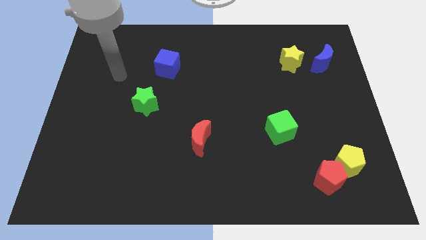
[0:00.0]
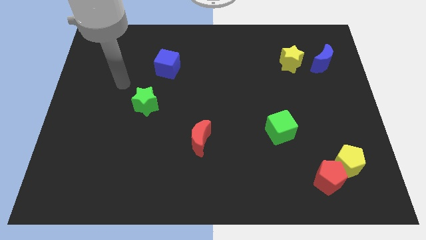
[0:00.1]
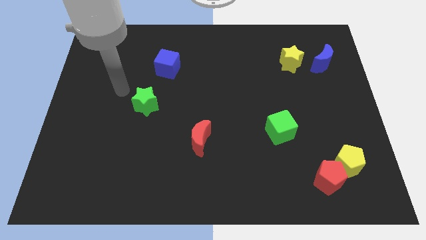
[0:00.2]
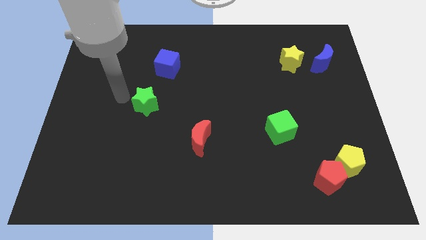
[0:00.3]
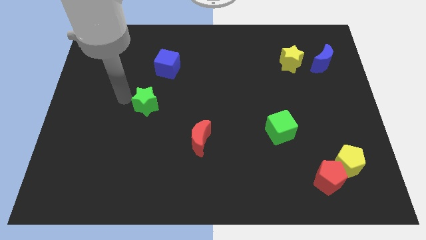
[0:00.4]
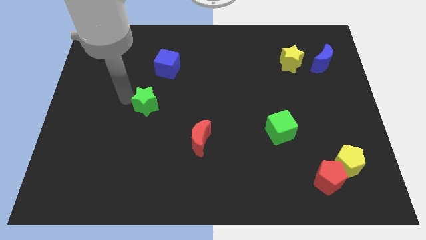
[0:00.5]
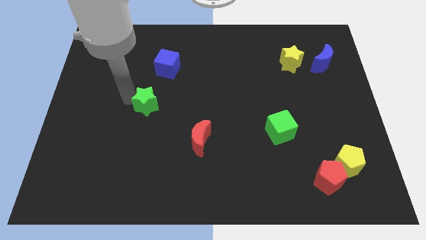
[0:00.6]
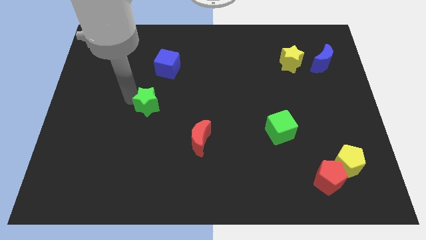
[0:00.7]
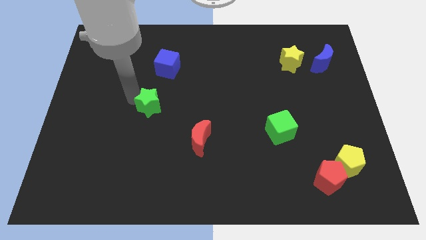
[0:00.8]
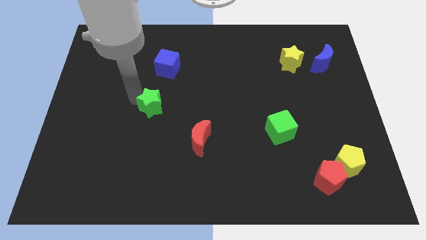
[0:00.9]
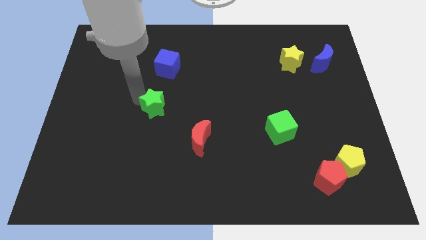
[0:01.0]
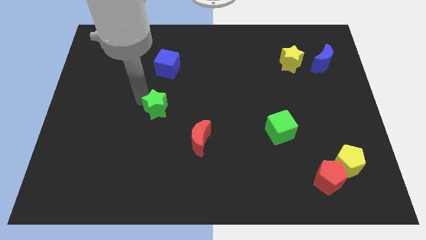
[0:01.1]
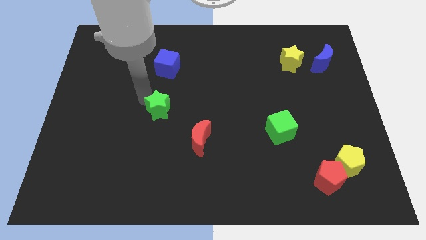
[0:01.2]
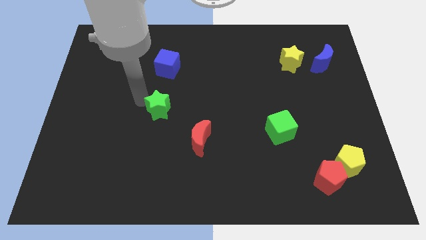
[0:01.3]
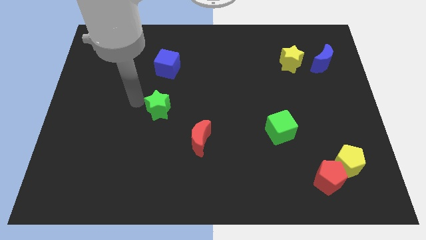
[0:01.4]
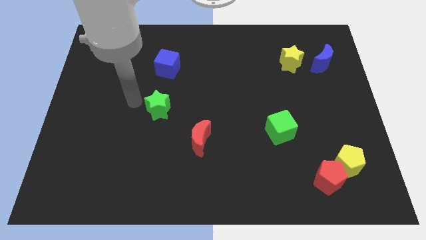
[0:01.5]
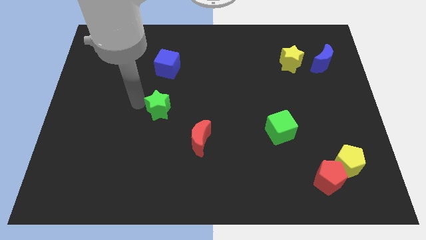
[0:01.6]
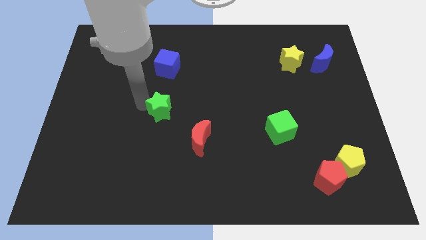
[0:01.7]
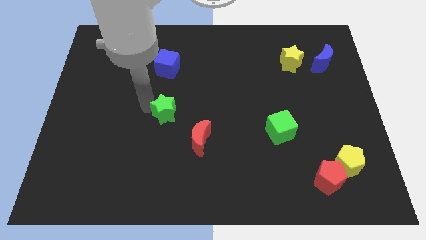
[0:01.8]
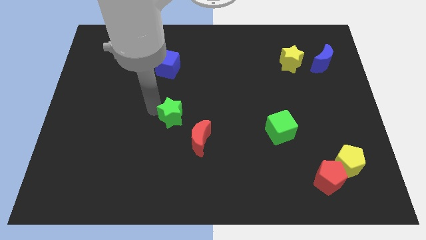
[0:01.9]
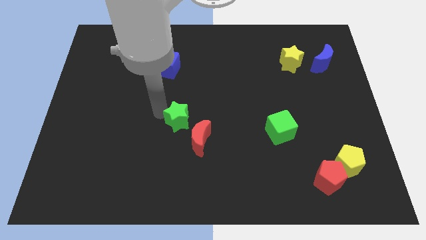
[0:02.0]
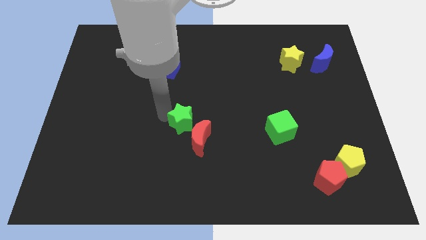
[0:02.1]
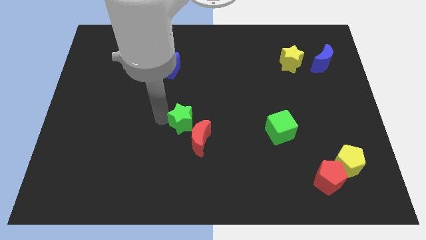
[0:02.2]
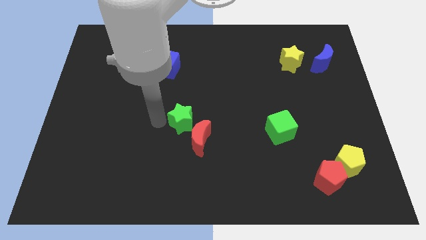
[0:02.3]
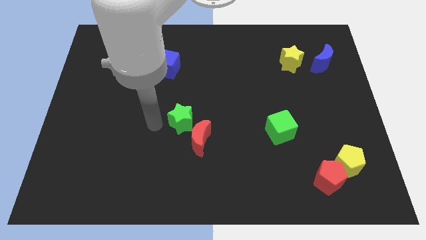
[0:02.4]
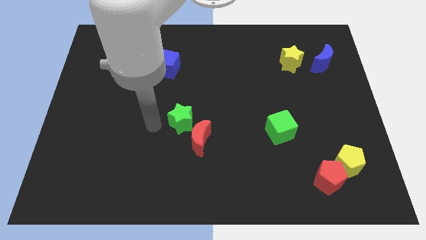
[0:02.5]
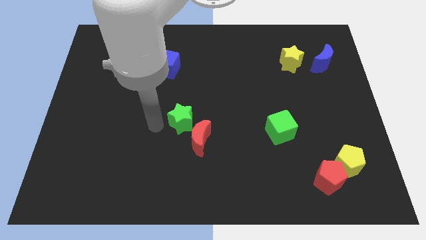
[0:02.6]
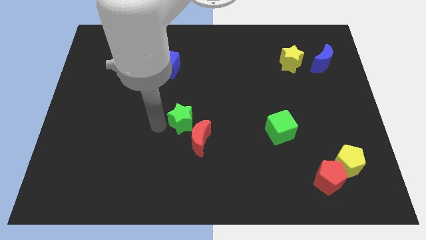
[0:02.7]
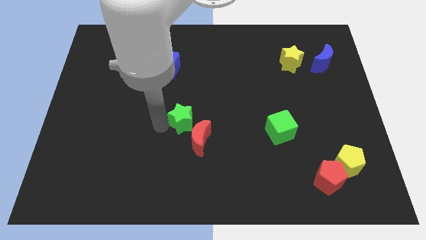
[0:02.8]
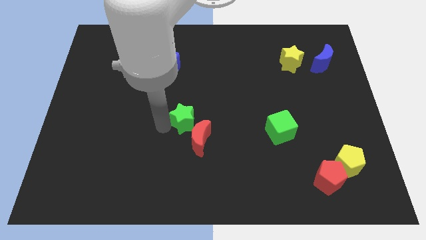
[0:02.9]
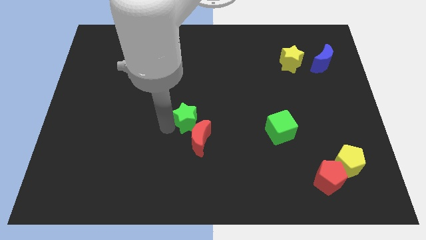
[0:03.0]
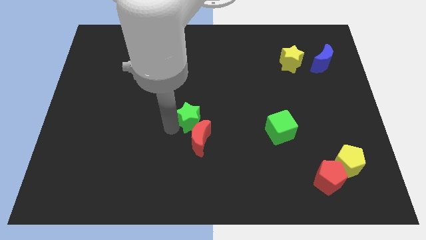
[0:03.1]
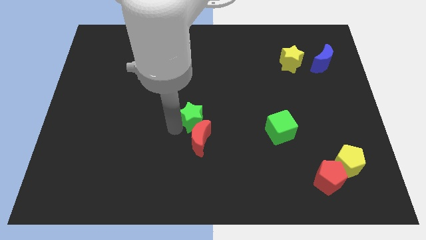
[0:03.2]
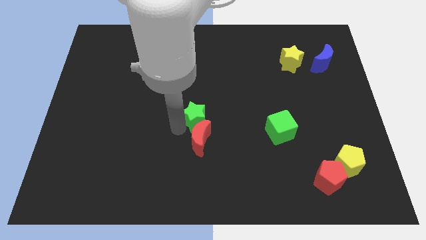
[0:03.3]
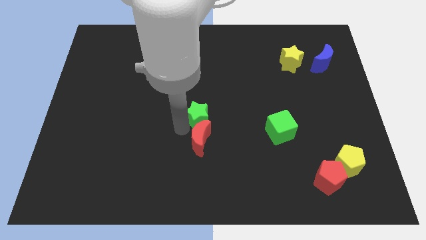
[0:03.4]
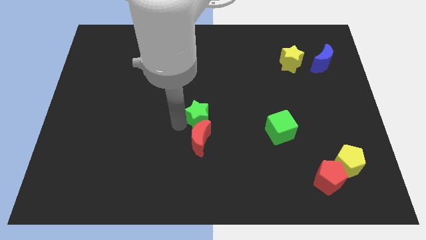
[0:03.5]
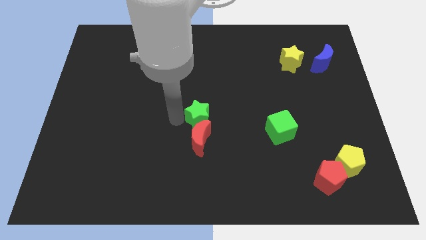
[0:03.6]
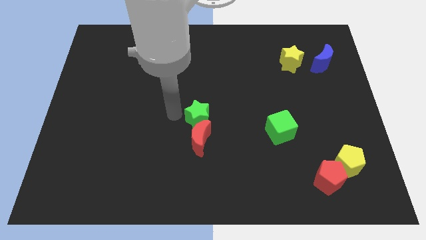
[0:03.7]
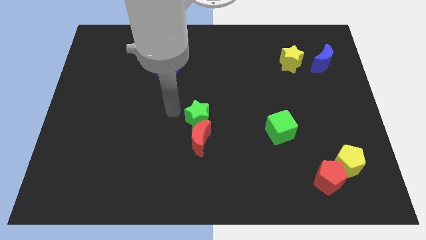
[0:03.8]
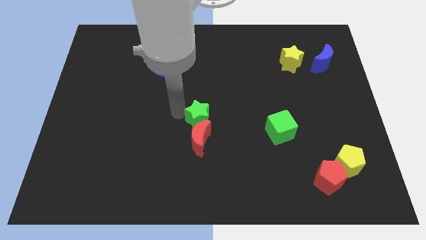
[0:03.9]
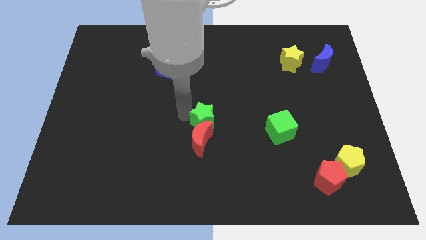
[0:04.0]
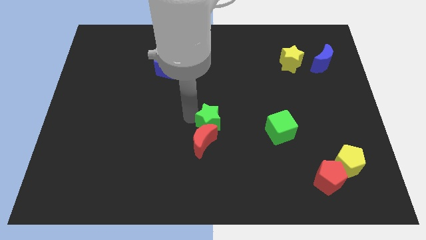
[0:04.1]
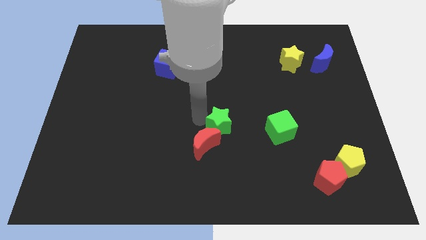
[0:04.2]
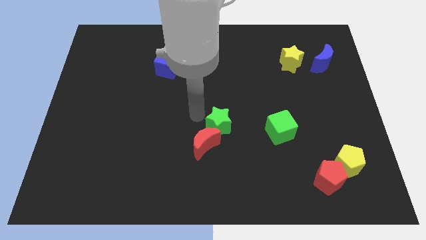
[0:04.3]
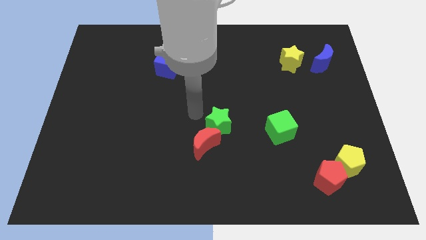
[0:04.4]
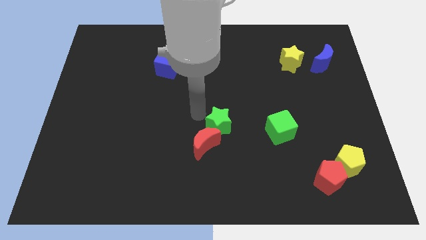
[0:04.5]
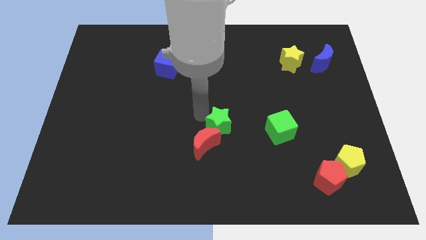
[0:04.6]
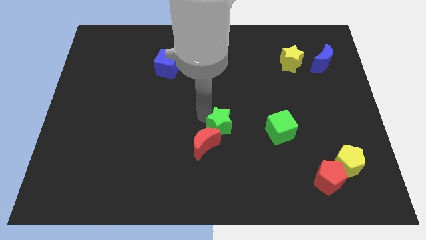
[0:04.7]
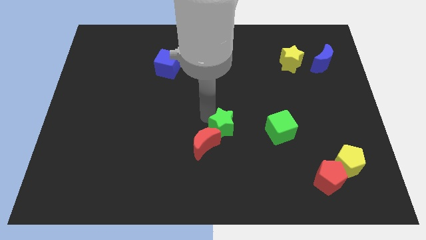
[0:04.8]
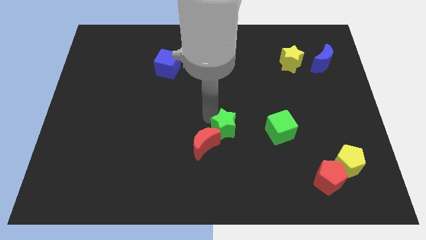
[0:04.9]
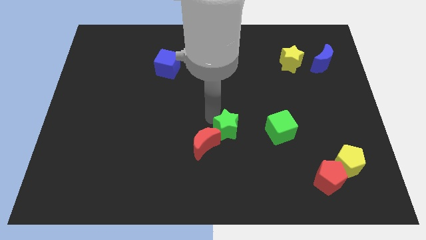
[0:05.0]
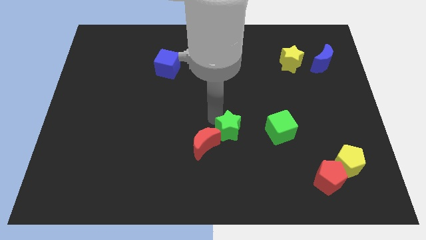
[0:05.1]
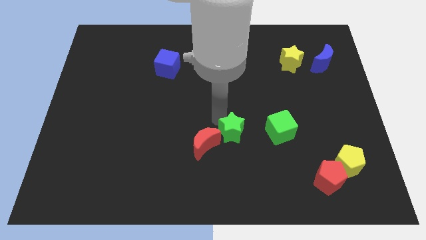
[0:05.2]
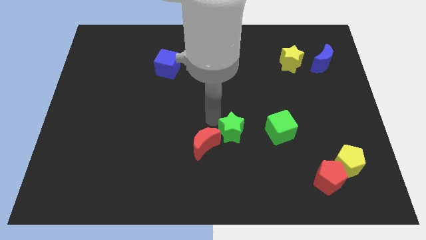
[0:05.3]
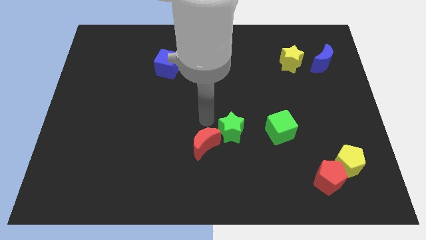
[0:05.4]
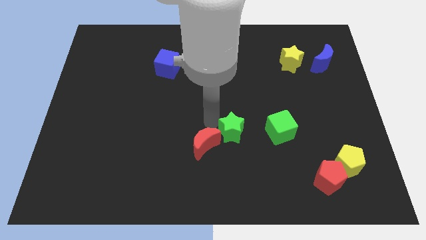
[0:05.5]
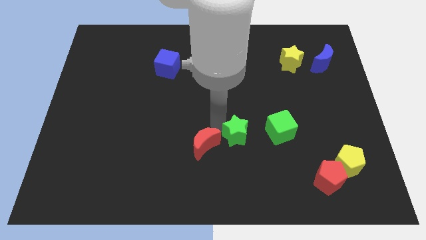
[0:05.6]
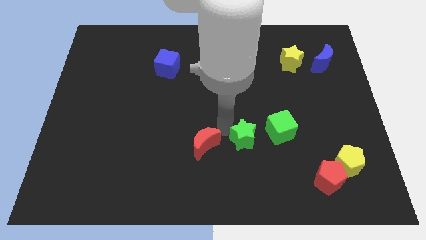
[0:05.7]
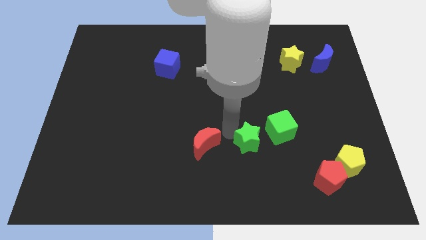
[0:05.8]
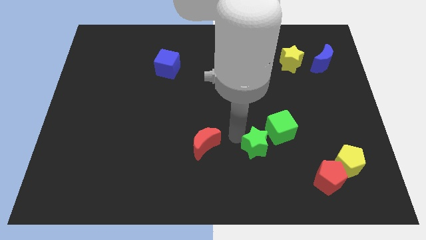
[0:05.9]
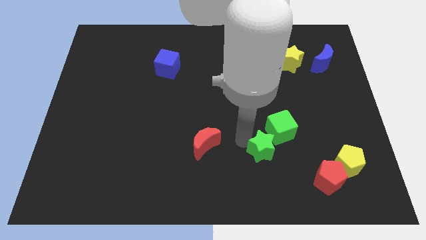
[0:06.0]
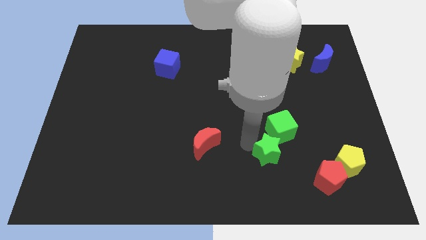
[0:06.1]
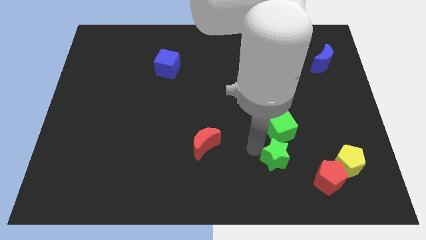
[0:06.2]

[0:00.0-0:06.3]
push the green star diagonally up and to the left of the red pentagon
